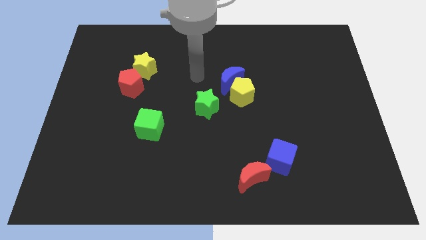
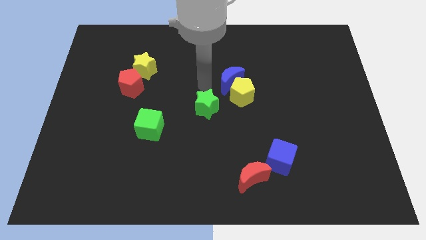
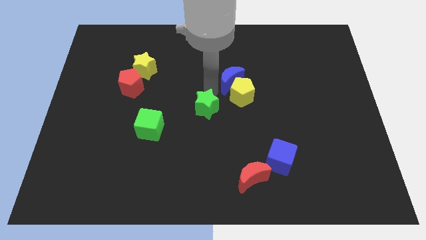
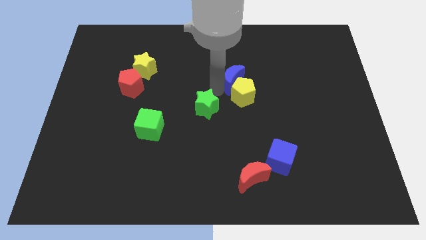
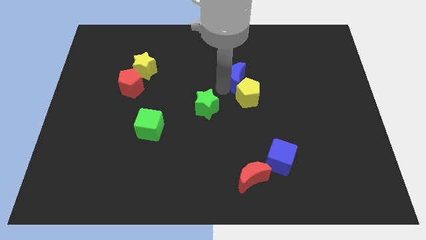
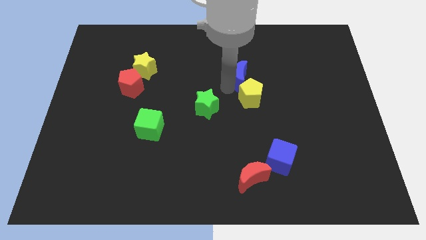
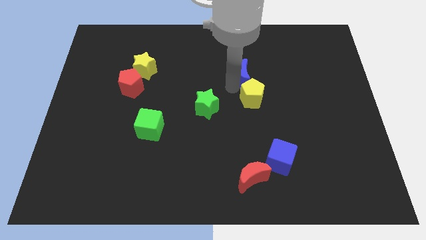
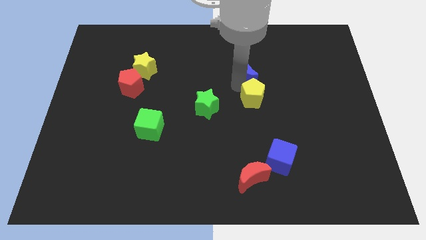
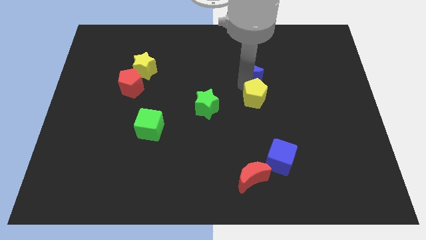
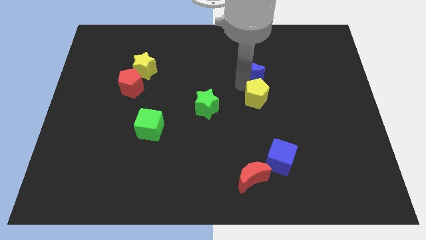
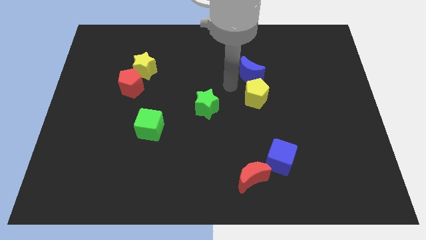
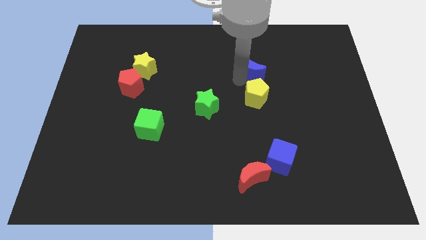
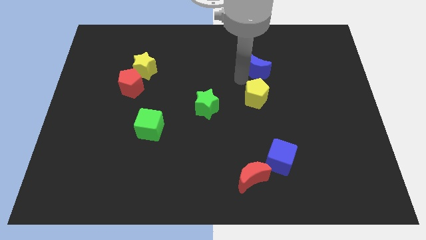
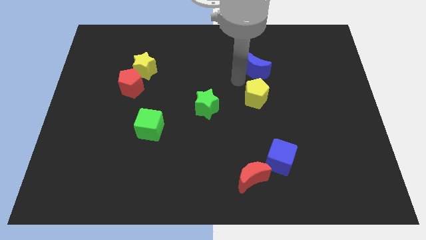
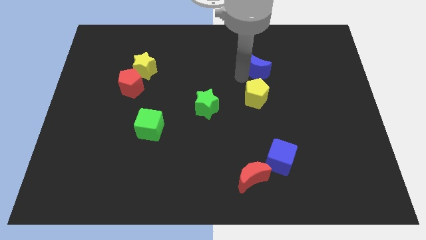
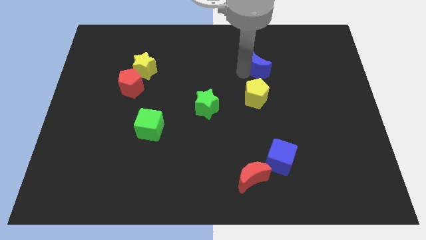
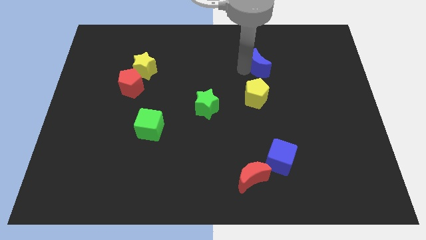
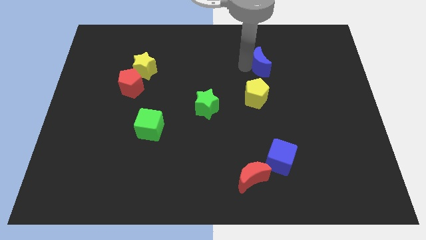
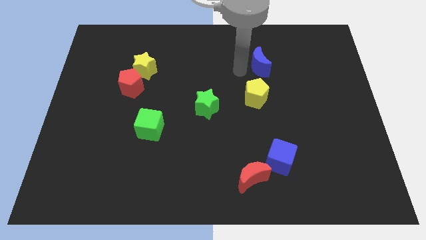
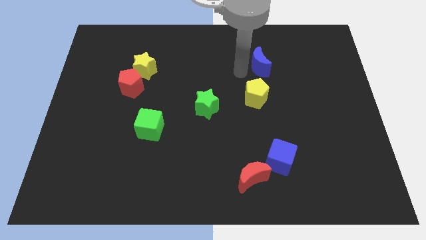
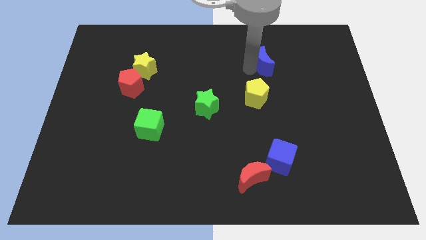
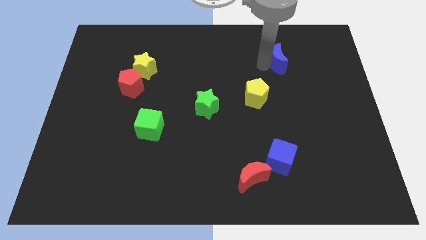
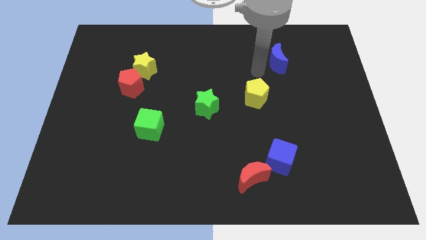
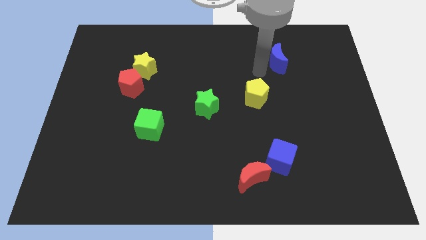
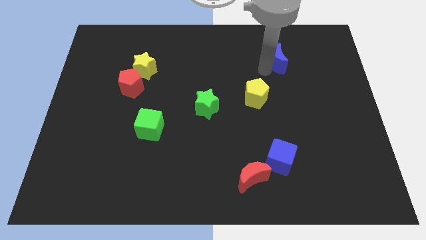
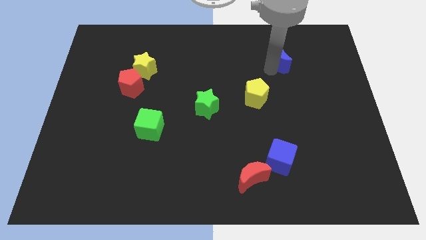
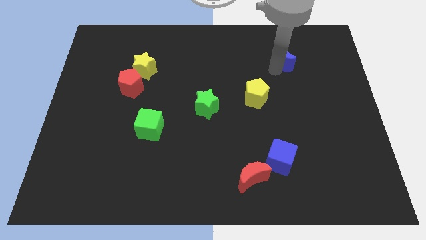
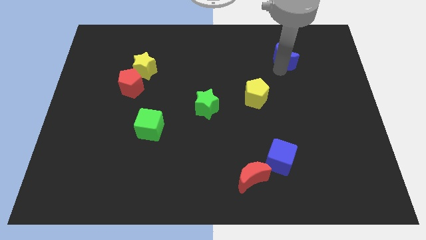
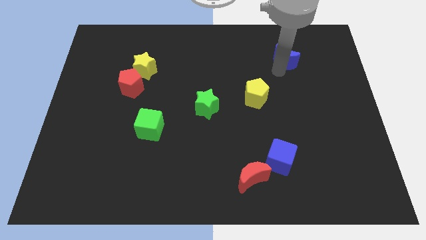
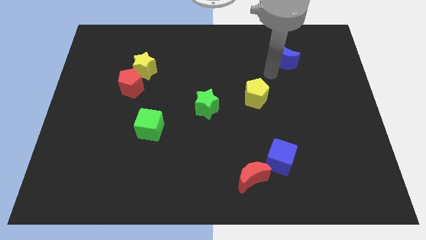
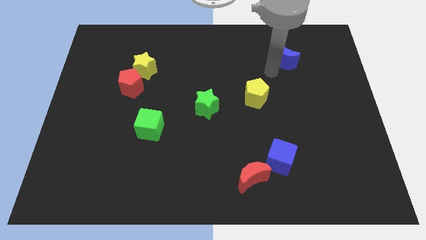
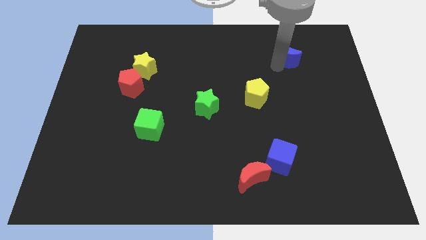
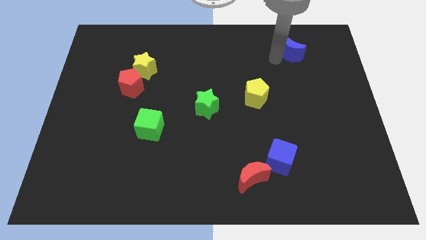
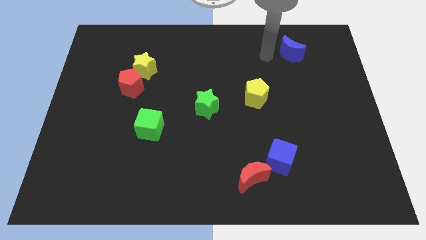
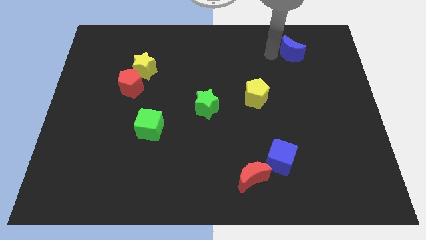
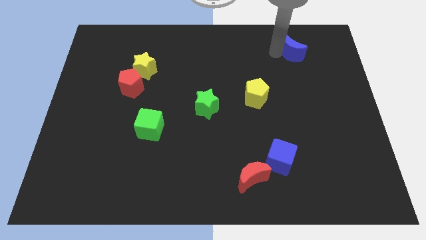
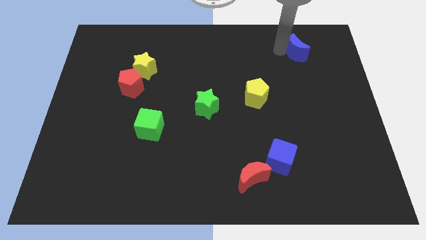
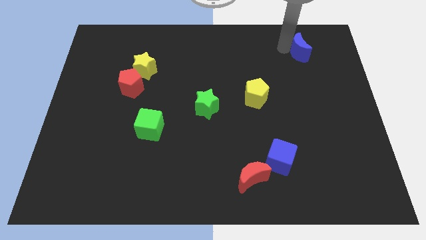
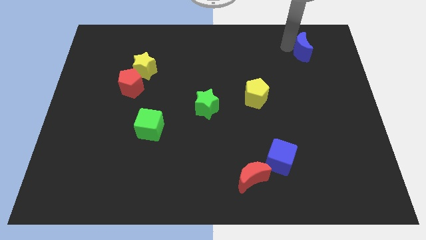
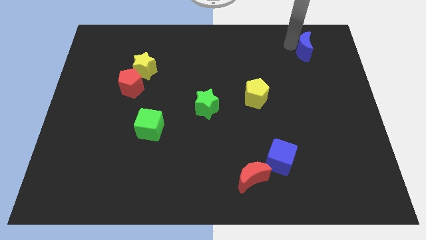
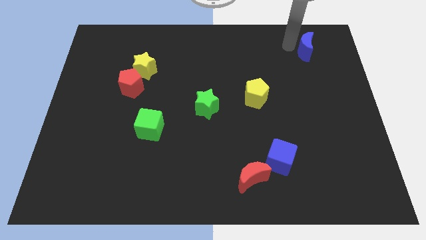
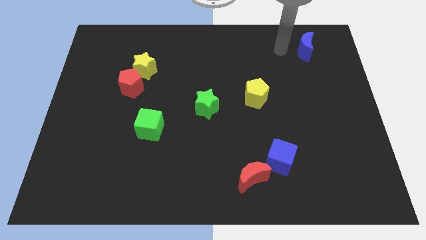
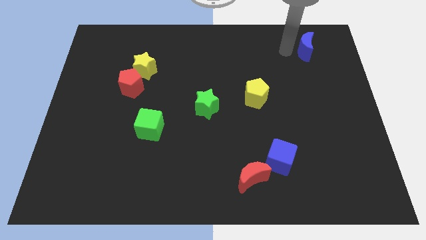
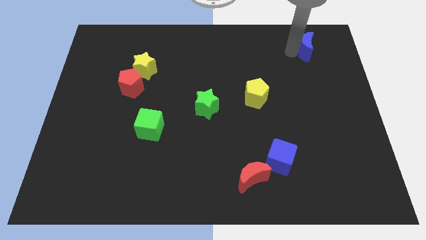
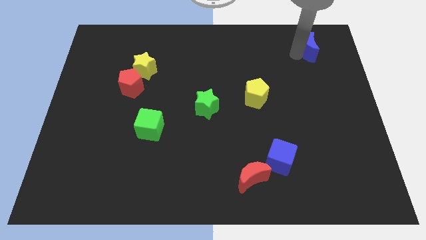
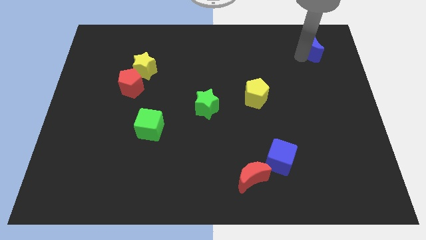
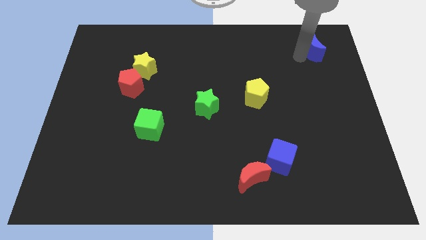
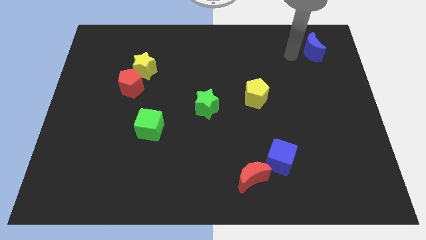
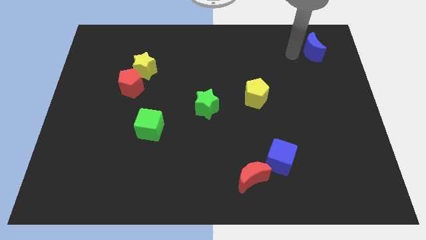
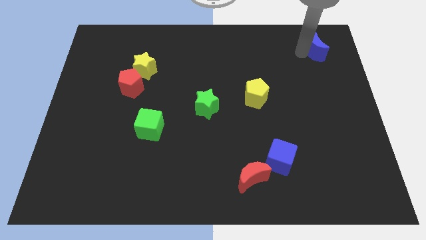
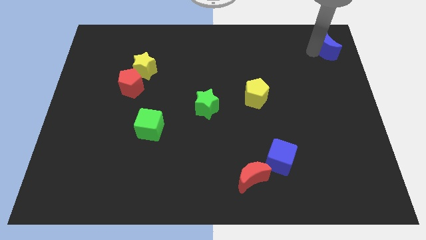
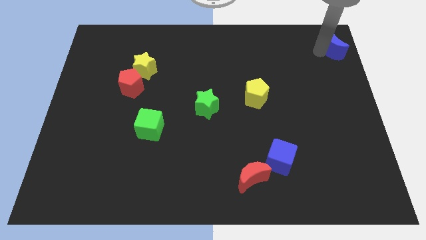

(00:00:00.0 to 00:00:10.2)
put the blue moon to the top right of the board

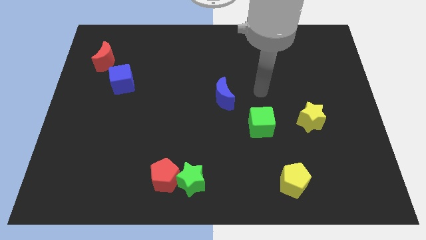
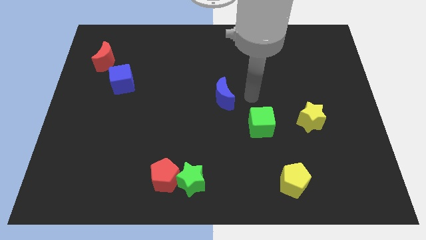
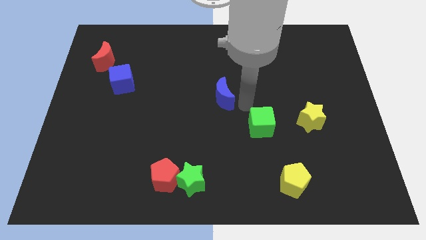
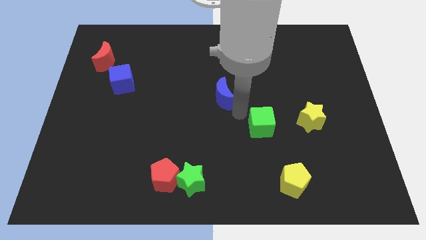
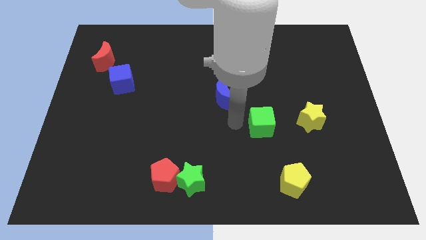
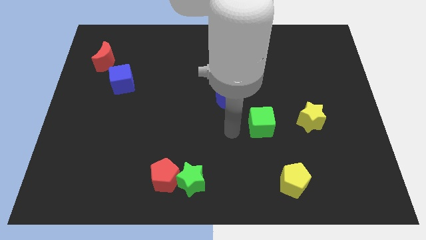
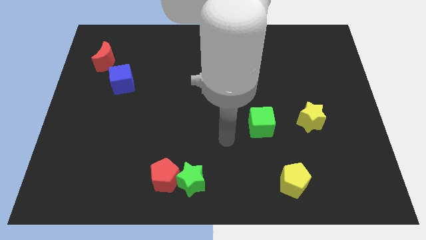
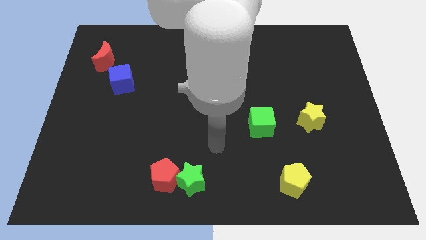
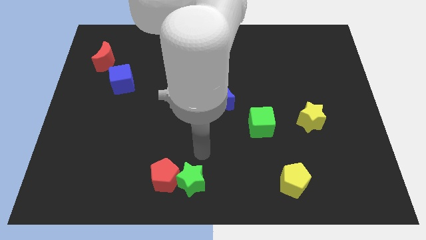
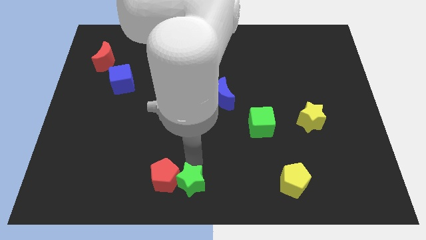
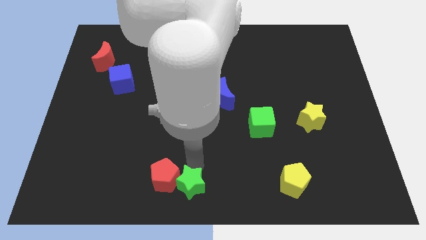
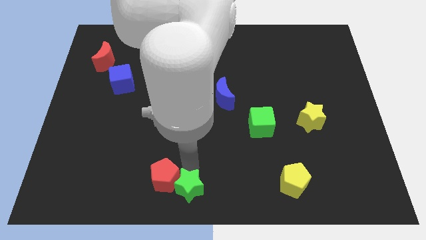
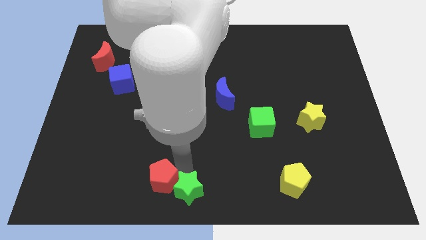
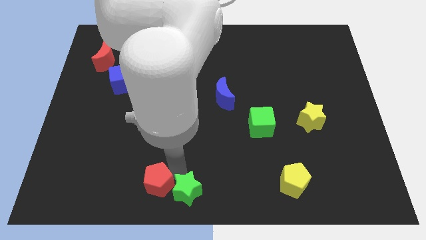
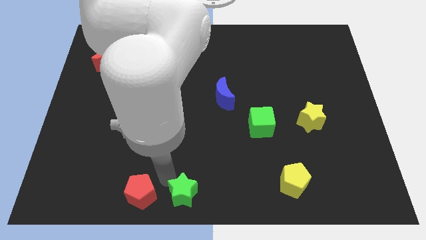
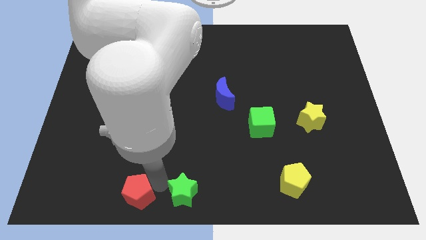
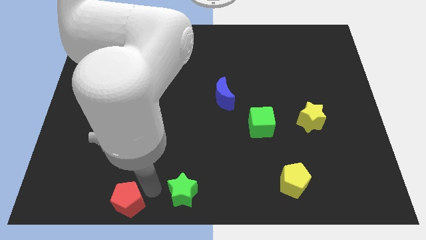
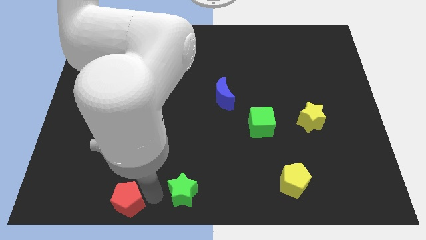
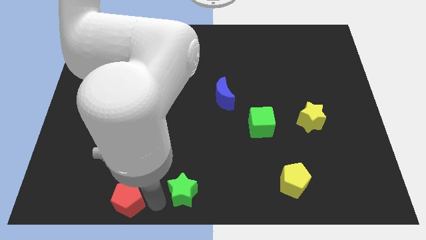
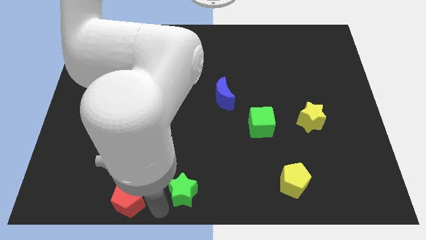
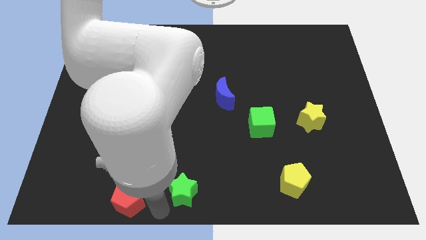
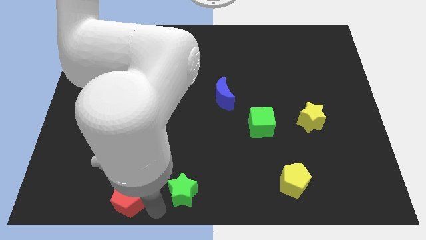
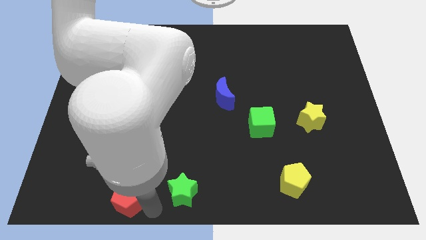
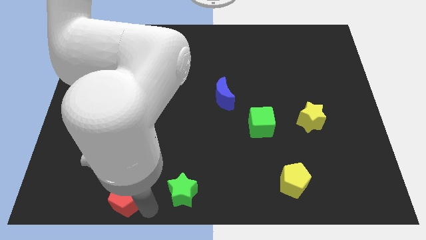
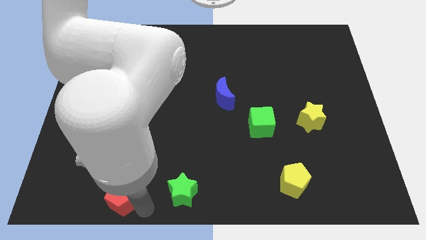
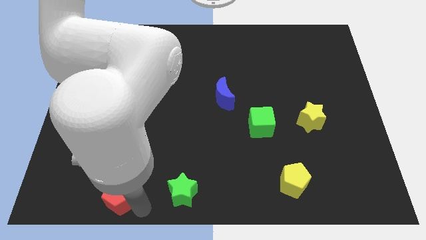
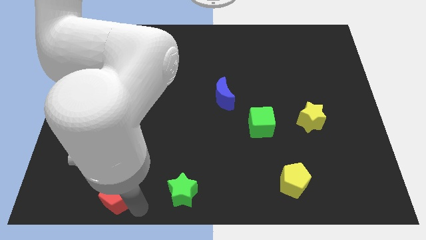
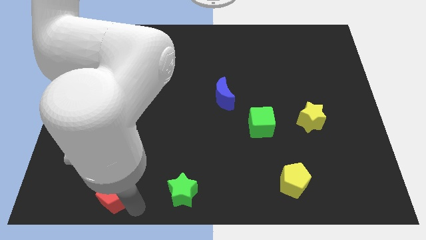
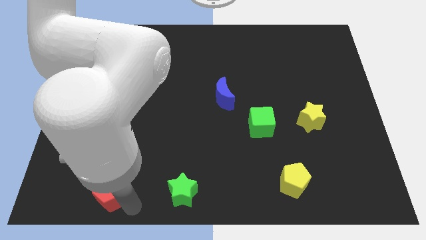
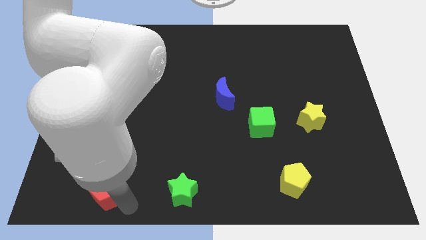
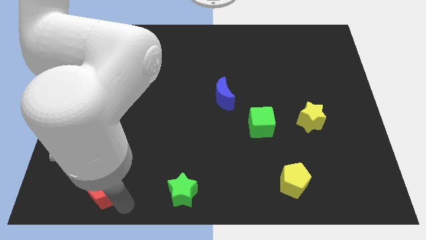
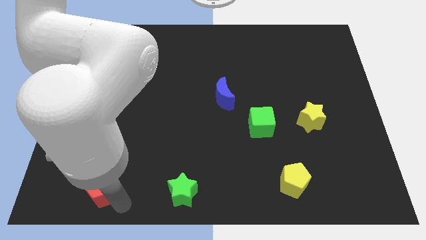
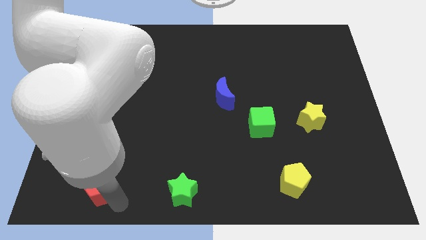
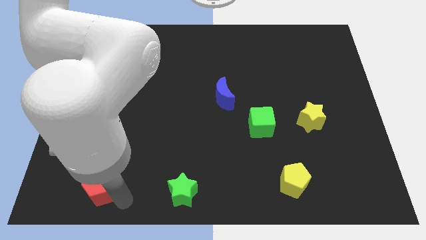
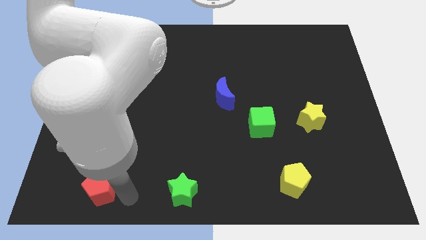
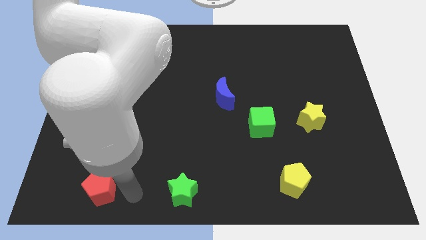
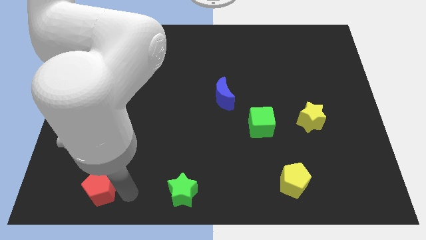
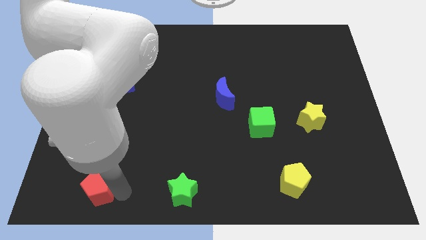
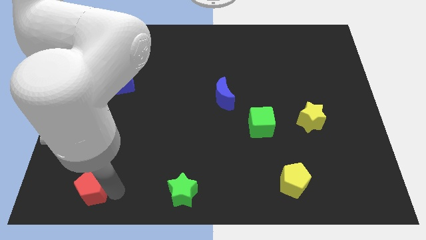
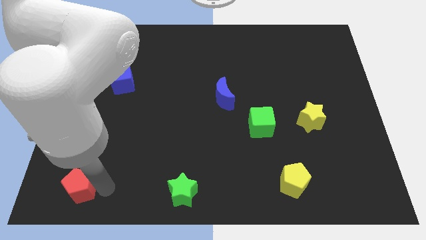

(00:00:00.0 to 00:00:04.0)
slide the red pentagon to the lower left corner
